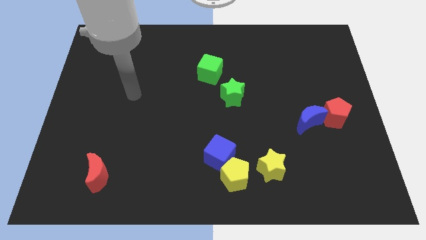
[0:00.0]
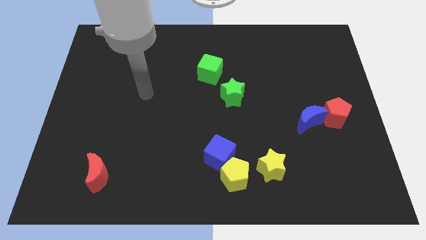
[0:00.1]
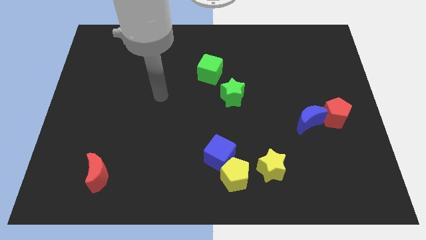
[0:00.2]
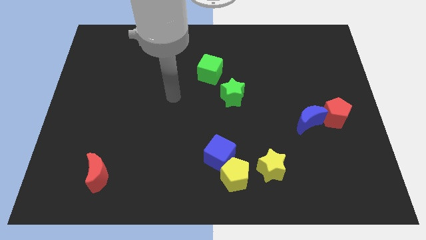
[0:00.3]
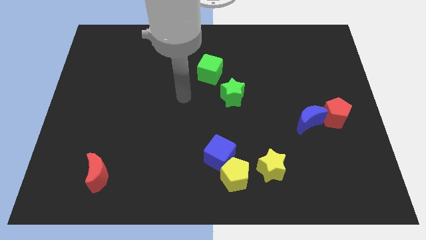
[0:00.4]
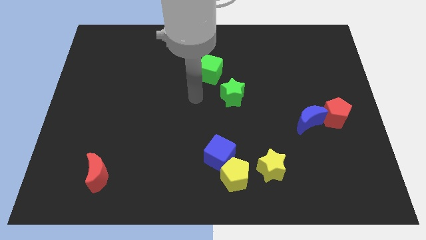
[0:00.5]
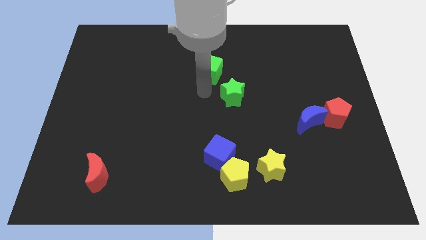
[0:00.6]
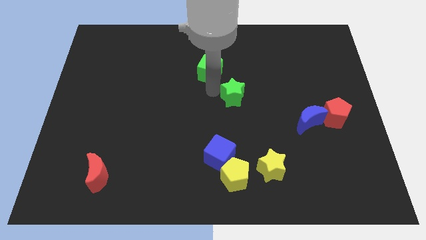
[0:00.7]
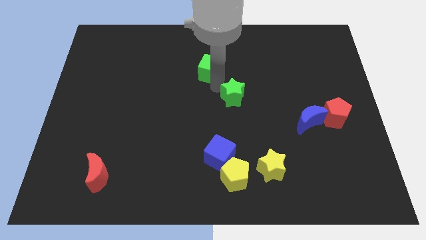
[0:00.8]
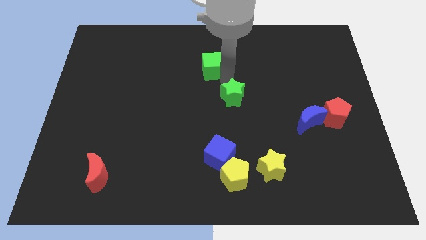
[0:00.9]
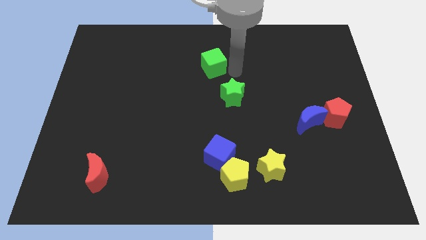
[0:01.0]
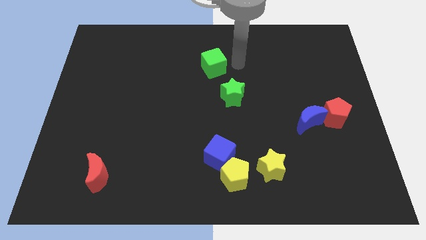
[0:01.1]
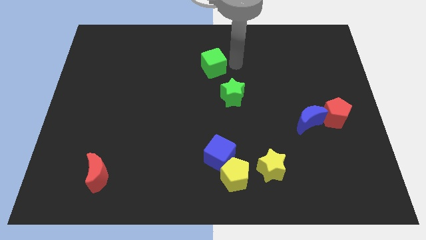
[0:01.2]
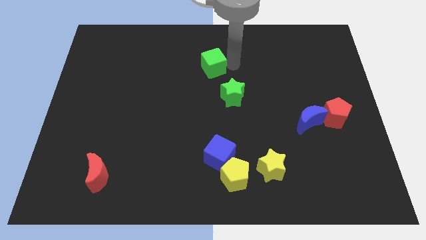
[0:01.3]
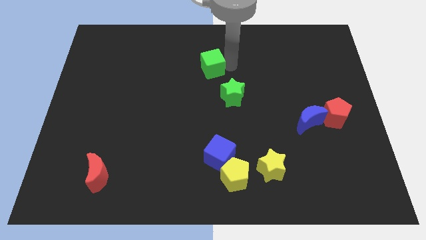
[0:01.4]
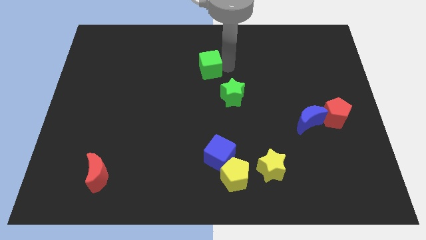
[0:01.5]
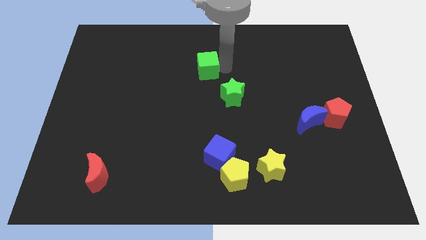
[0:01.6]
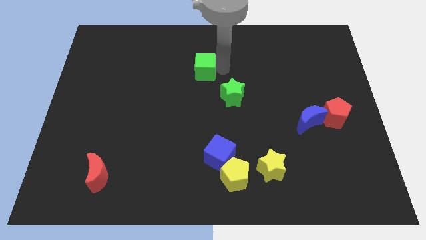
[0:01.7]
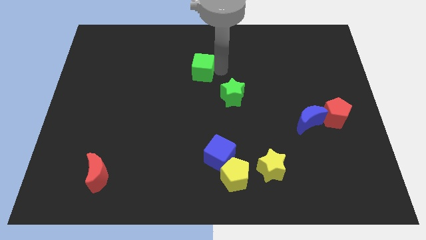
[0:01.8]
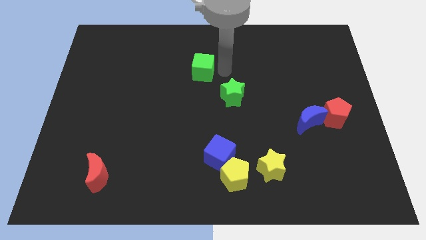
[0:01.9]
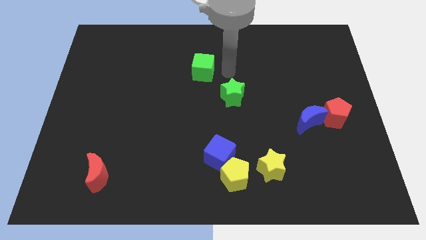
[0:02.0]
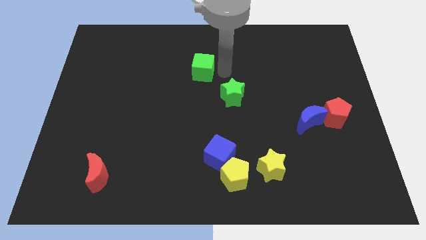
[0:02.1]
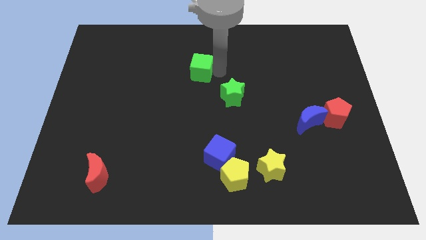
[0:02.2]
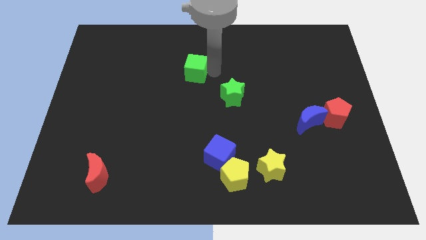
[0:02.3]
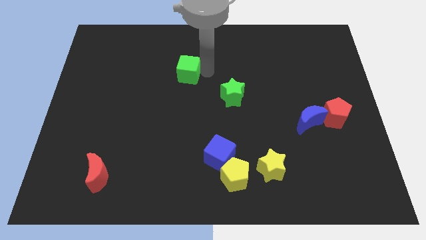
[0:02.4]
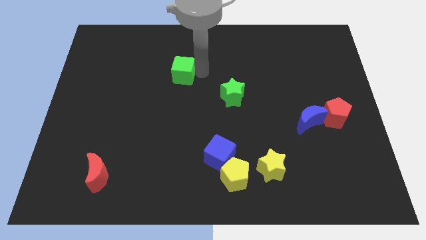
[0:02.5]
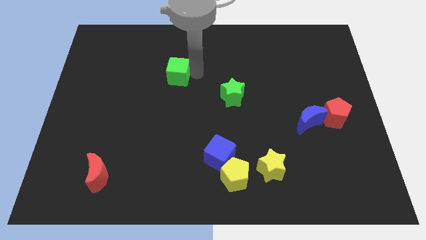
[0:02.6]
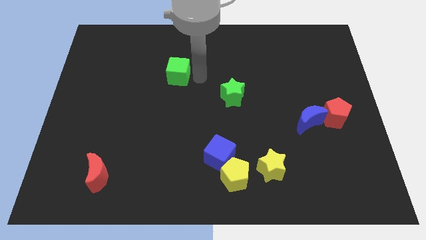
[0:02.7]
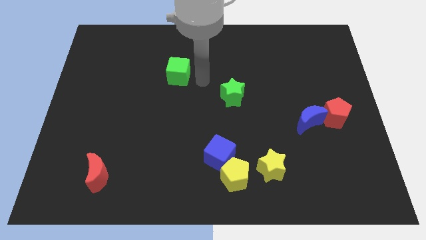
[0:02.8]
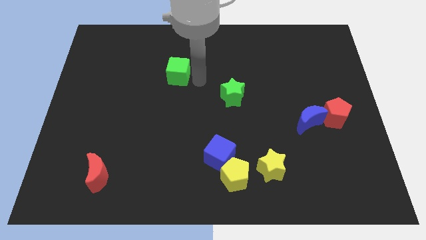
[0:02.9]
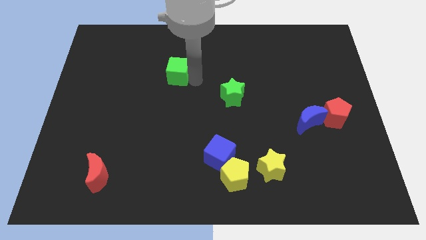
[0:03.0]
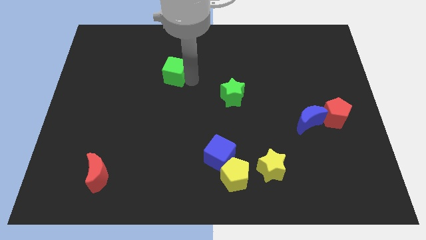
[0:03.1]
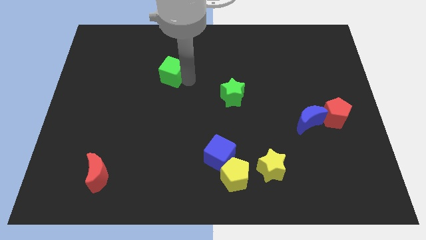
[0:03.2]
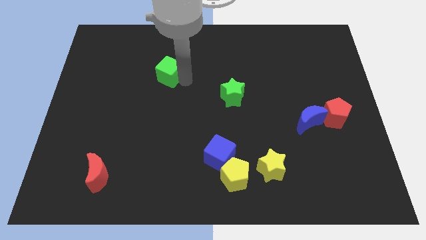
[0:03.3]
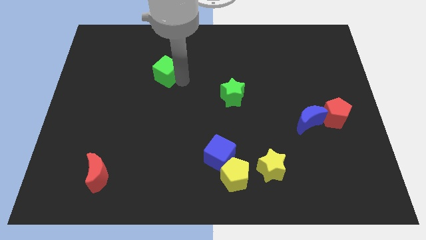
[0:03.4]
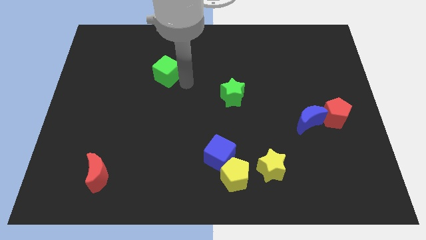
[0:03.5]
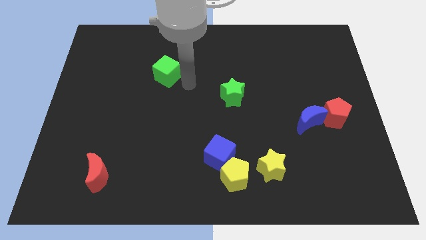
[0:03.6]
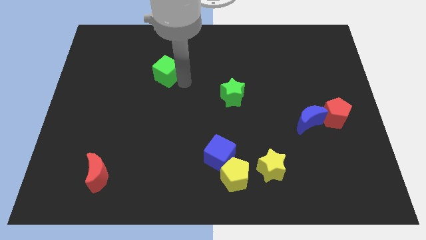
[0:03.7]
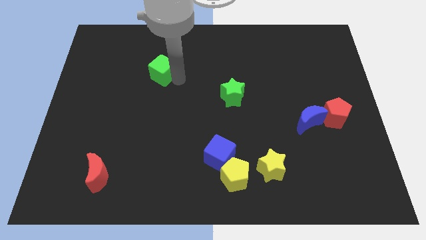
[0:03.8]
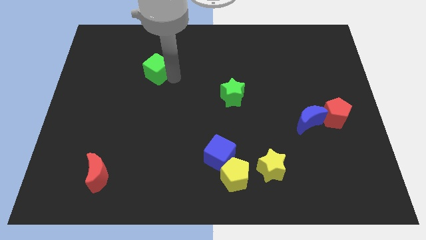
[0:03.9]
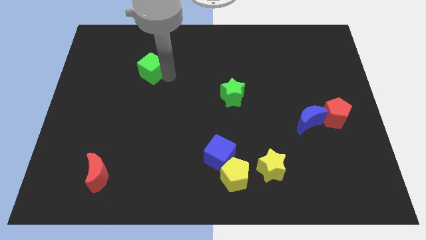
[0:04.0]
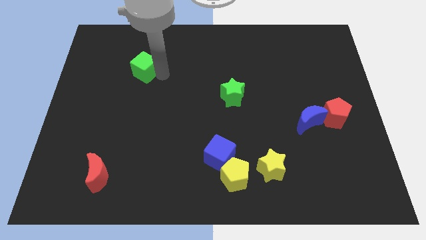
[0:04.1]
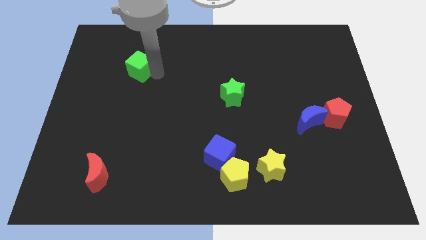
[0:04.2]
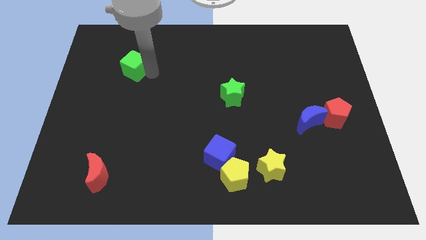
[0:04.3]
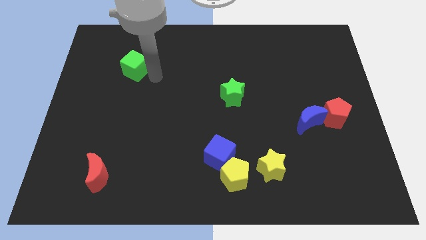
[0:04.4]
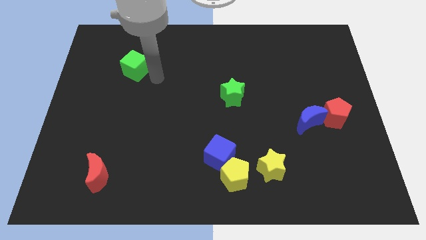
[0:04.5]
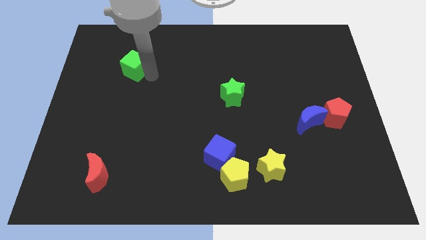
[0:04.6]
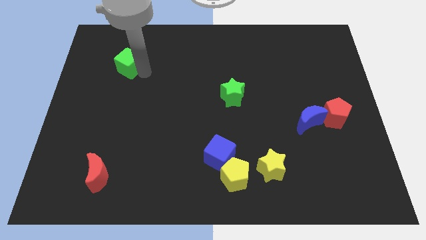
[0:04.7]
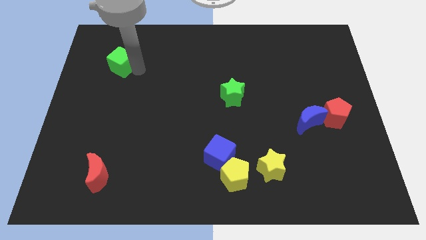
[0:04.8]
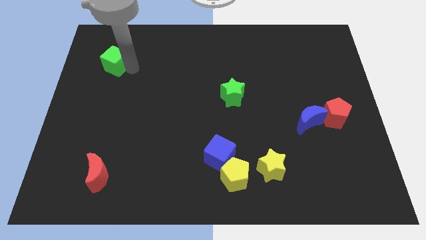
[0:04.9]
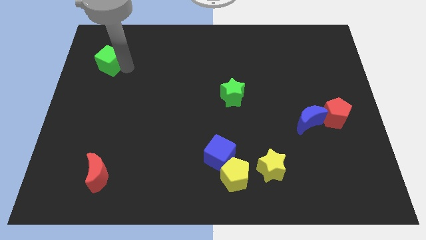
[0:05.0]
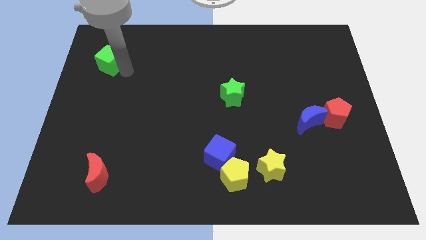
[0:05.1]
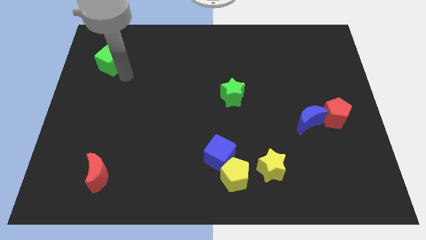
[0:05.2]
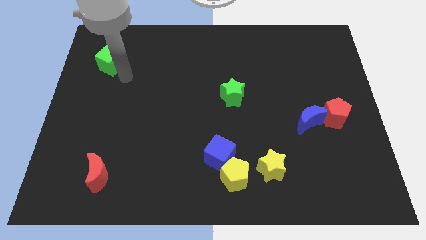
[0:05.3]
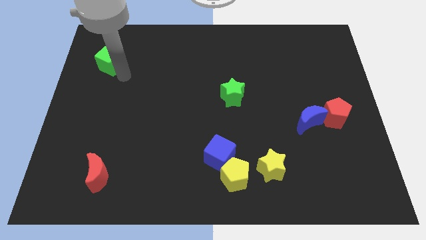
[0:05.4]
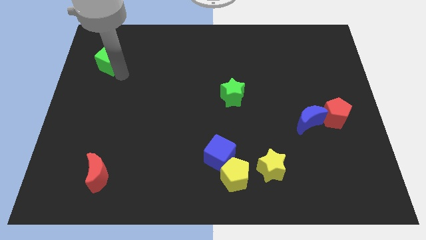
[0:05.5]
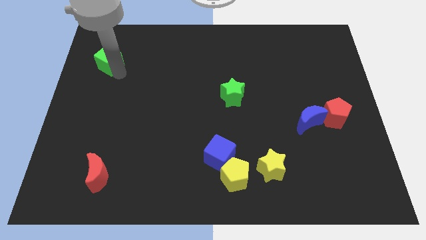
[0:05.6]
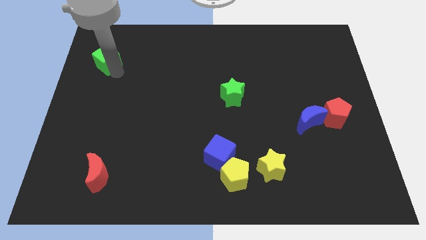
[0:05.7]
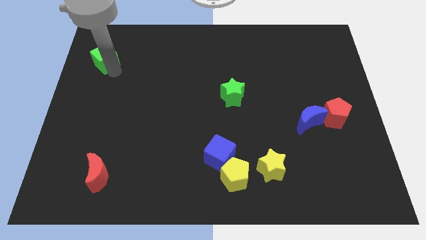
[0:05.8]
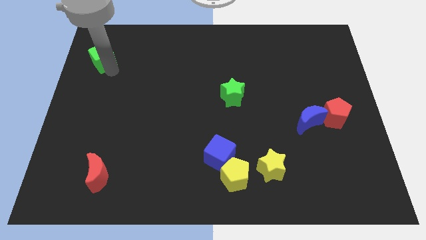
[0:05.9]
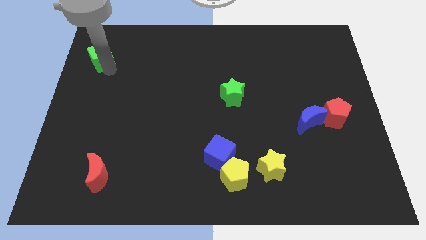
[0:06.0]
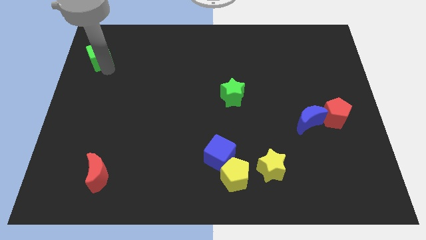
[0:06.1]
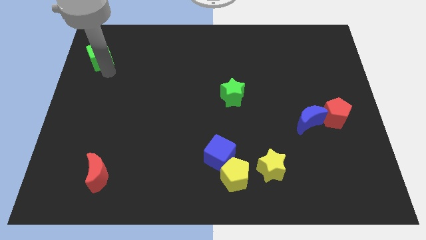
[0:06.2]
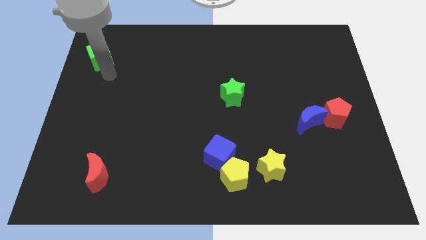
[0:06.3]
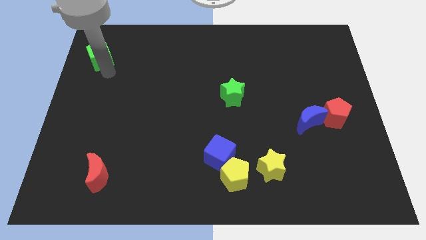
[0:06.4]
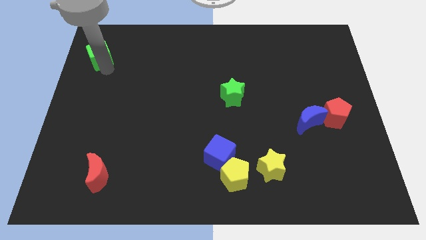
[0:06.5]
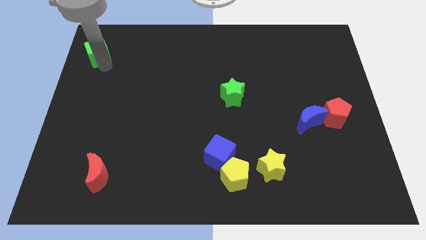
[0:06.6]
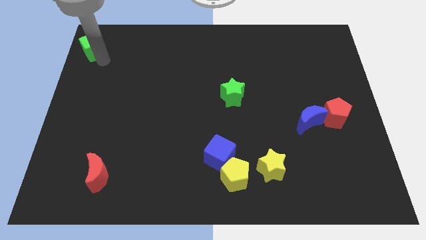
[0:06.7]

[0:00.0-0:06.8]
put the green cube to the top left of the board

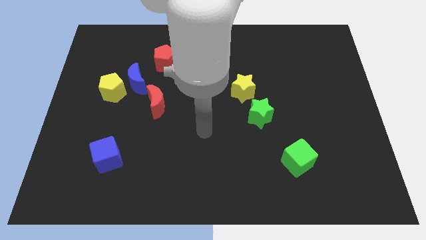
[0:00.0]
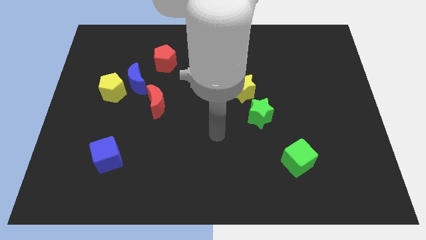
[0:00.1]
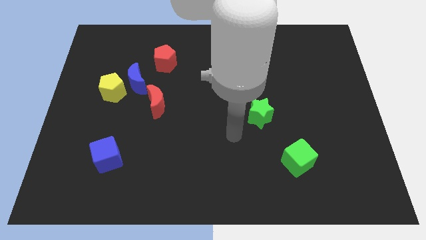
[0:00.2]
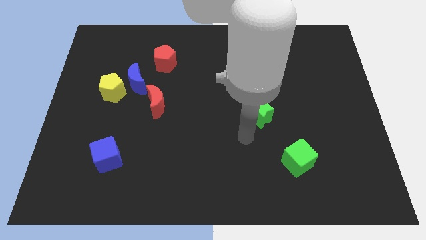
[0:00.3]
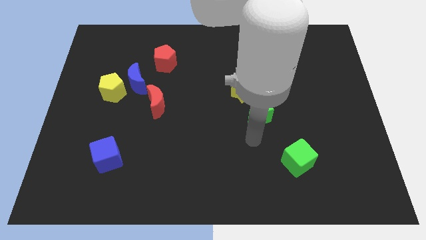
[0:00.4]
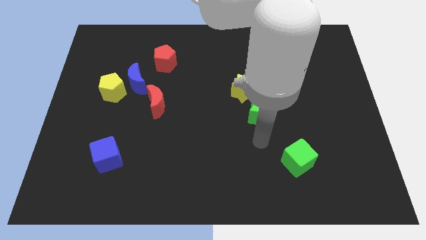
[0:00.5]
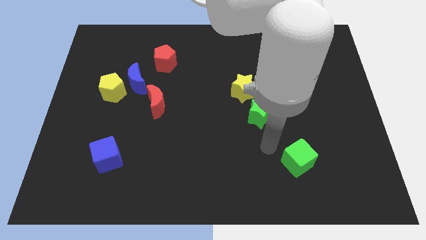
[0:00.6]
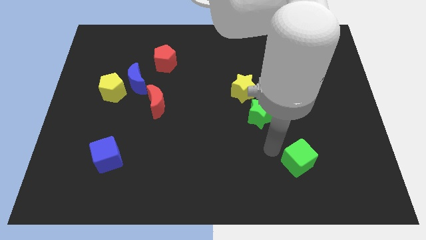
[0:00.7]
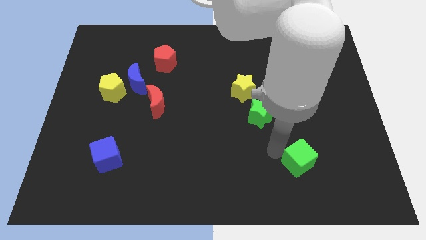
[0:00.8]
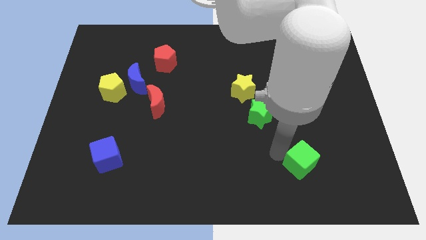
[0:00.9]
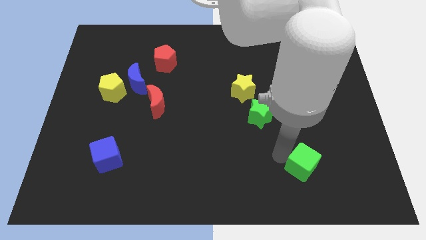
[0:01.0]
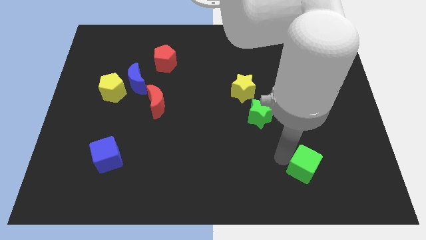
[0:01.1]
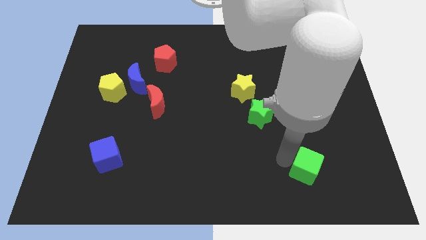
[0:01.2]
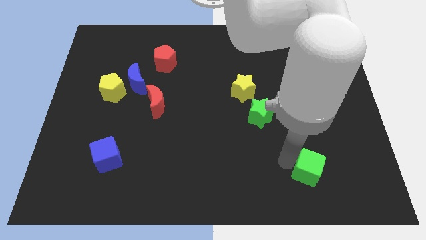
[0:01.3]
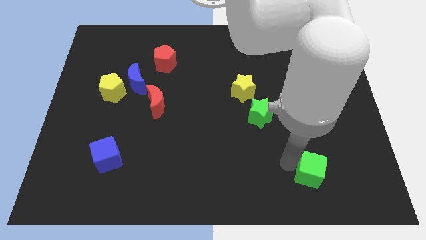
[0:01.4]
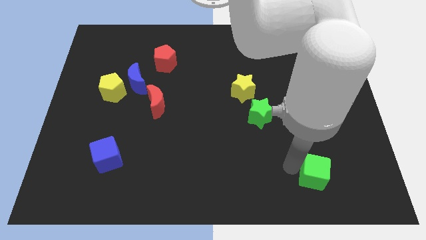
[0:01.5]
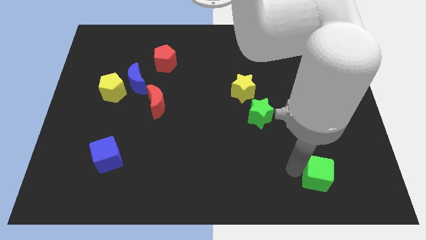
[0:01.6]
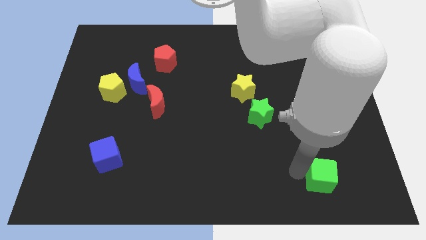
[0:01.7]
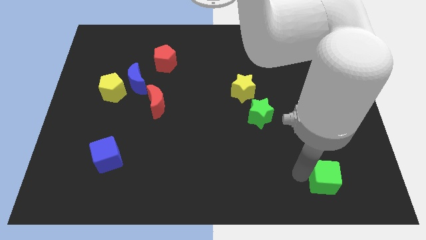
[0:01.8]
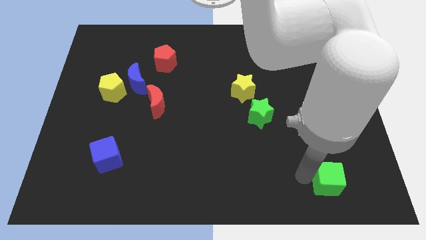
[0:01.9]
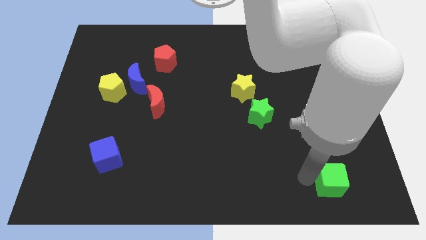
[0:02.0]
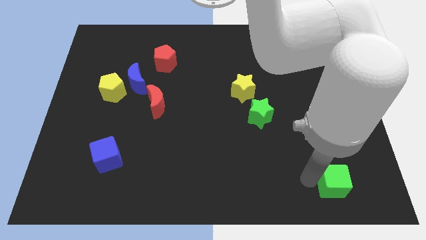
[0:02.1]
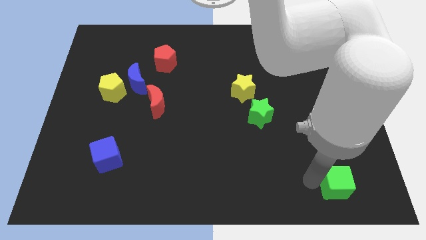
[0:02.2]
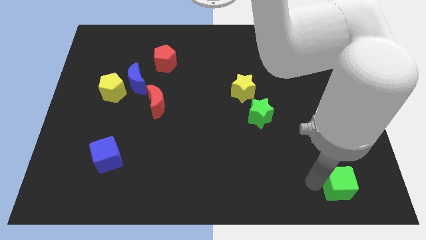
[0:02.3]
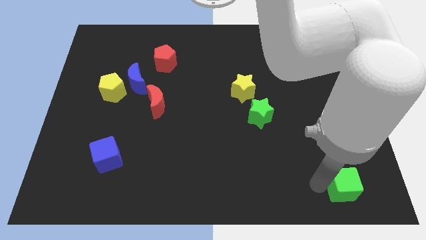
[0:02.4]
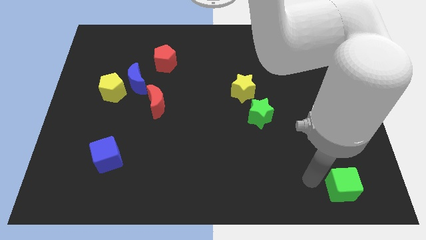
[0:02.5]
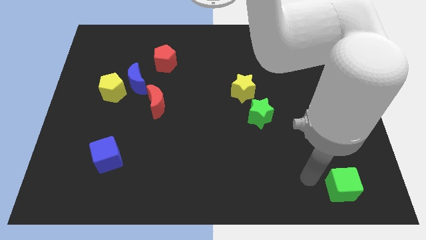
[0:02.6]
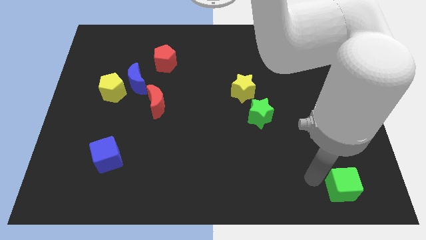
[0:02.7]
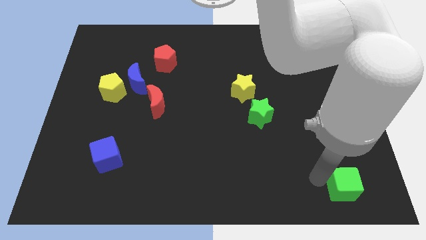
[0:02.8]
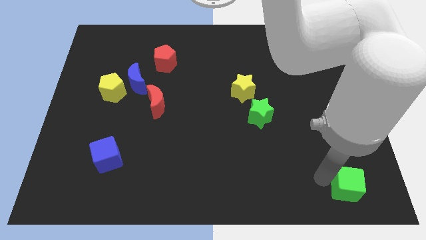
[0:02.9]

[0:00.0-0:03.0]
move the green cube to the bottom right
